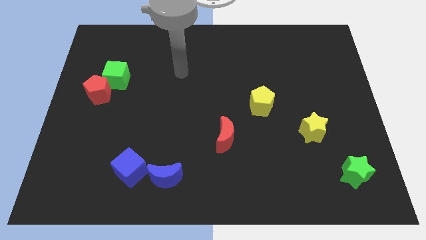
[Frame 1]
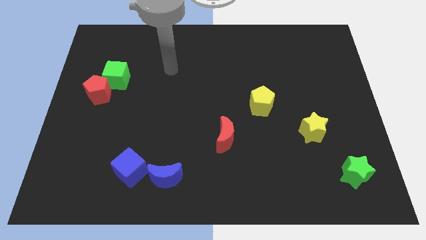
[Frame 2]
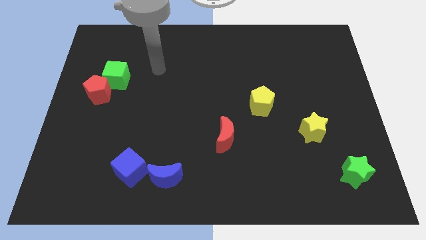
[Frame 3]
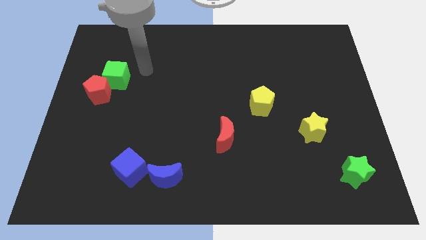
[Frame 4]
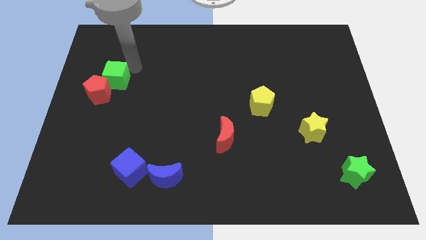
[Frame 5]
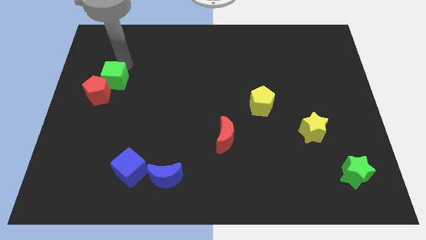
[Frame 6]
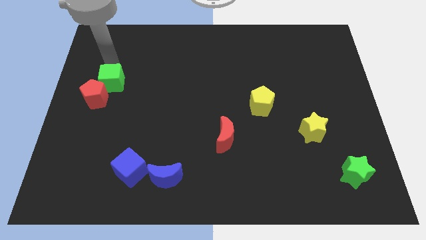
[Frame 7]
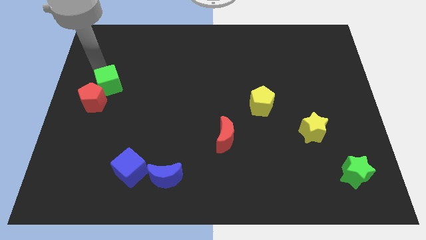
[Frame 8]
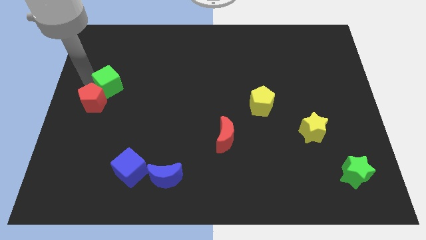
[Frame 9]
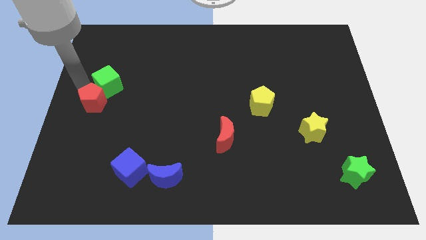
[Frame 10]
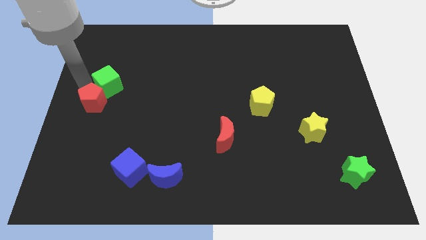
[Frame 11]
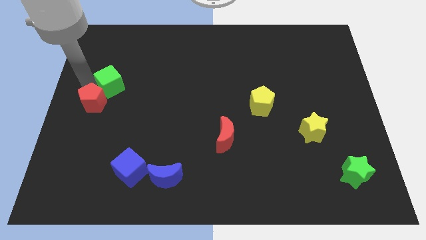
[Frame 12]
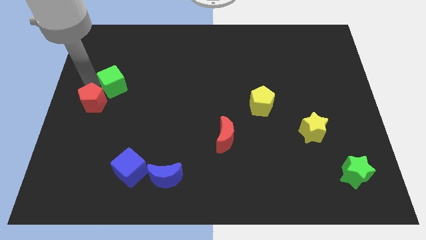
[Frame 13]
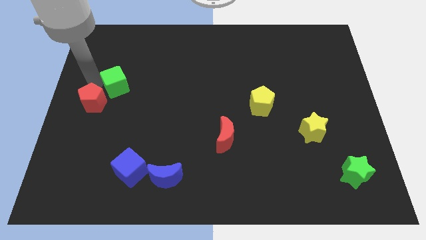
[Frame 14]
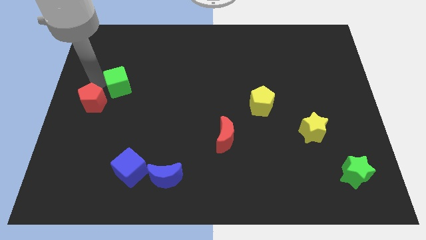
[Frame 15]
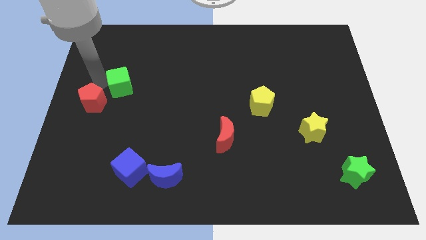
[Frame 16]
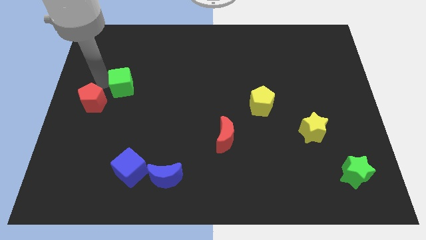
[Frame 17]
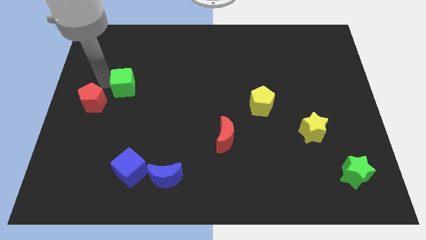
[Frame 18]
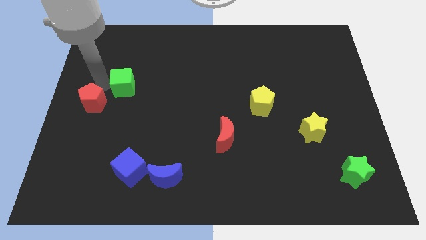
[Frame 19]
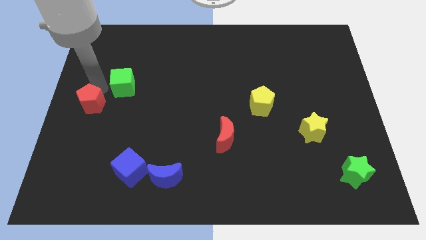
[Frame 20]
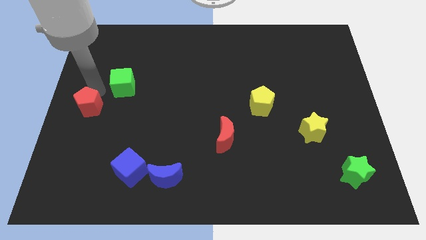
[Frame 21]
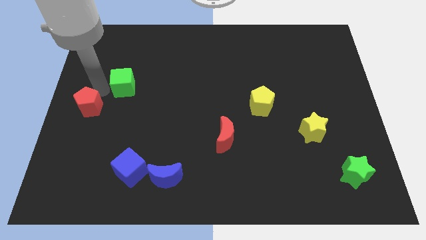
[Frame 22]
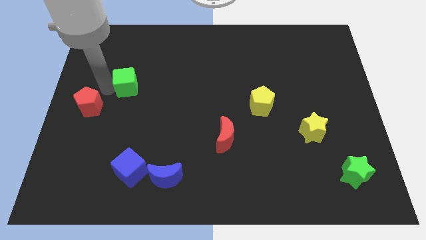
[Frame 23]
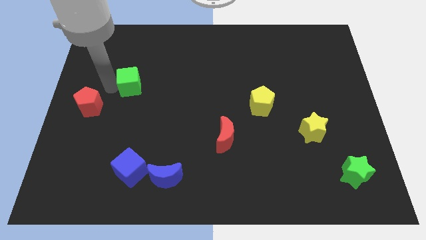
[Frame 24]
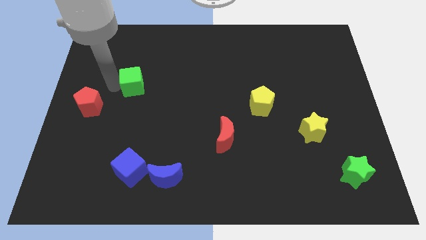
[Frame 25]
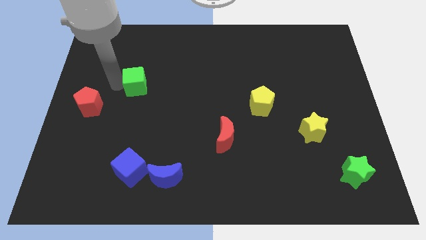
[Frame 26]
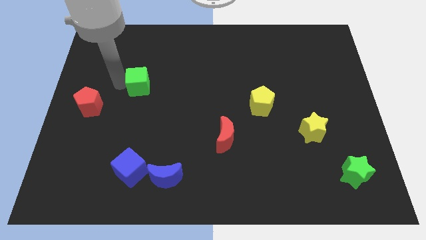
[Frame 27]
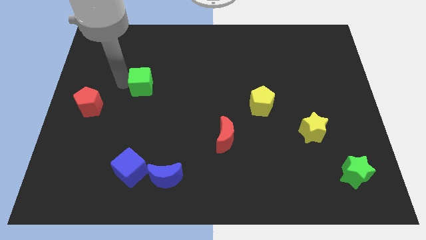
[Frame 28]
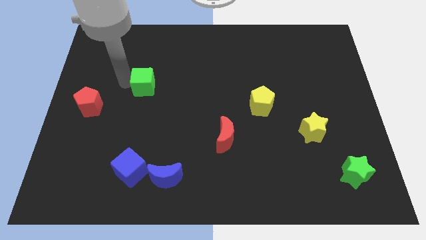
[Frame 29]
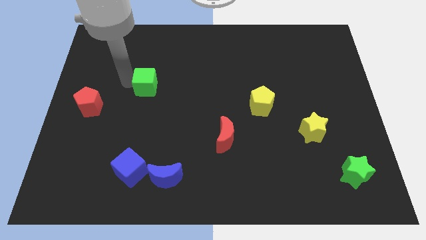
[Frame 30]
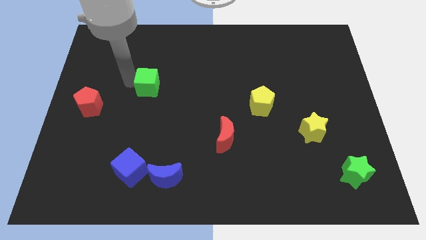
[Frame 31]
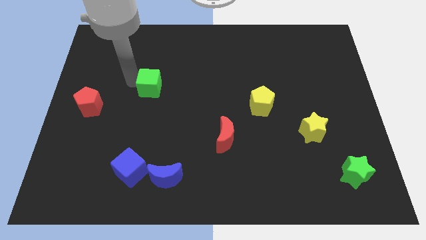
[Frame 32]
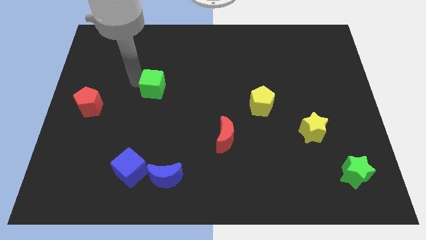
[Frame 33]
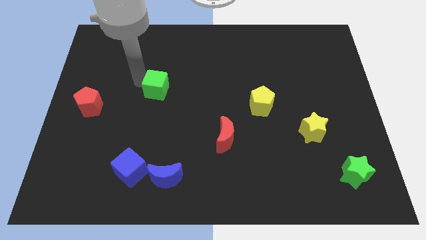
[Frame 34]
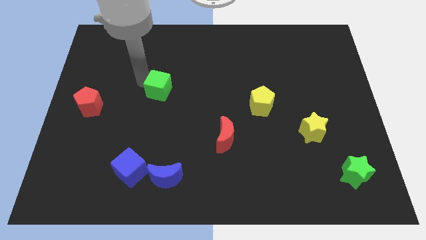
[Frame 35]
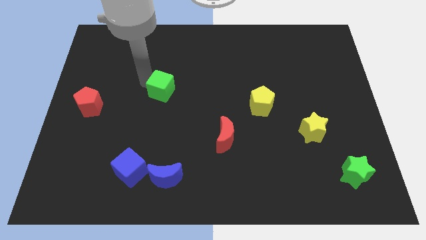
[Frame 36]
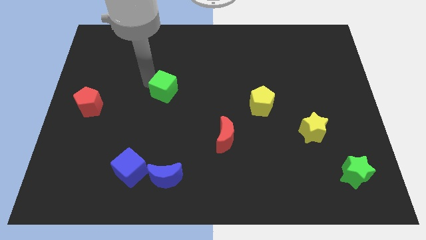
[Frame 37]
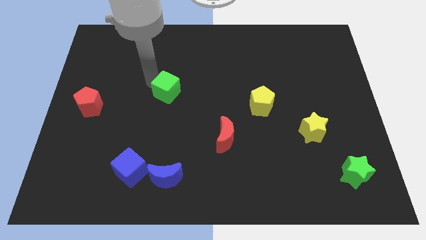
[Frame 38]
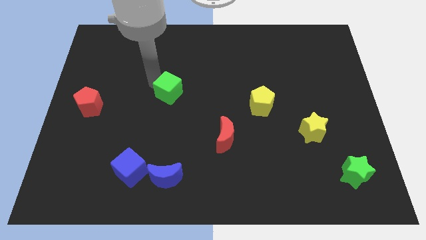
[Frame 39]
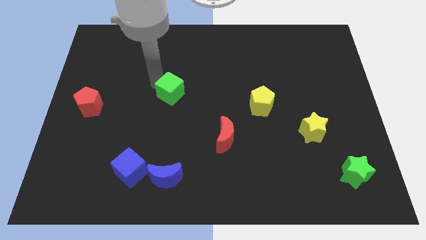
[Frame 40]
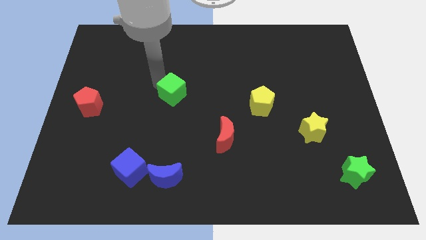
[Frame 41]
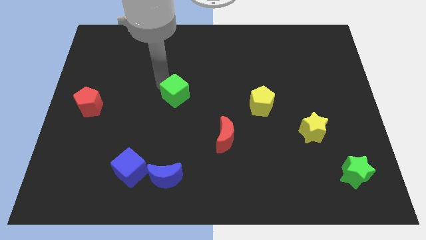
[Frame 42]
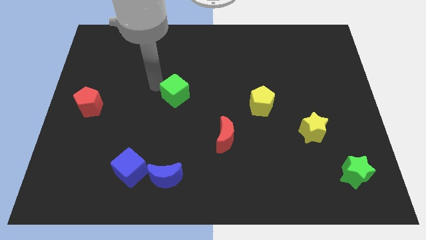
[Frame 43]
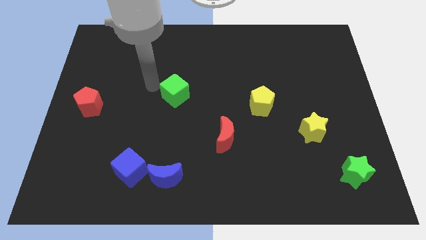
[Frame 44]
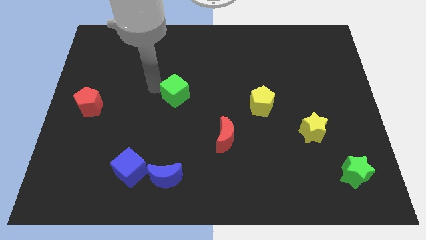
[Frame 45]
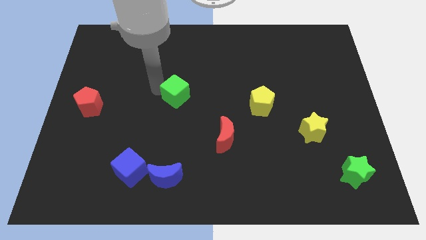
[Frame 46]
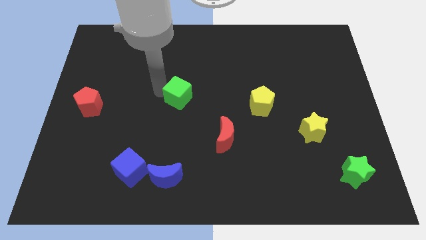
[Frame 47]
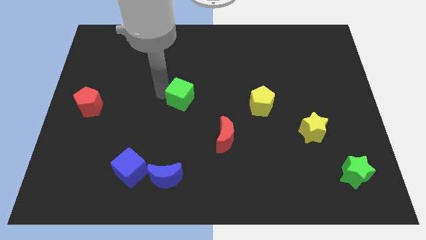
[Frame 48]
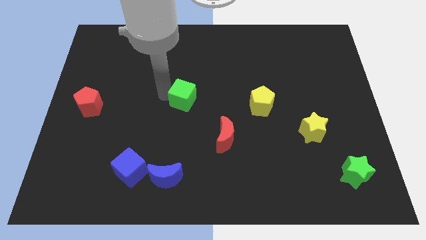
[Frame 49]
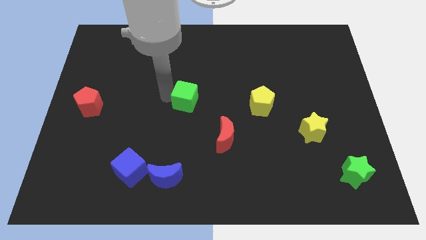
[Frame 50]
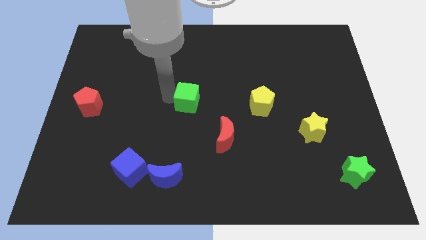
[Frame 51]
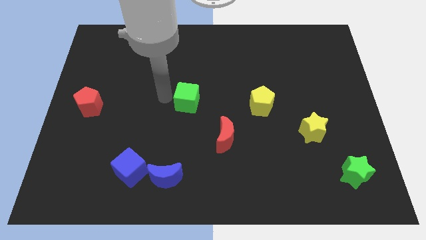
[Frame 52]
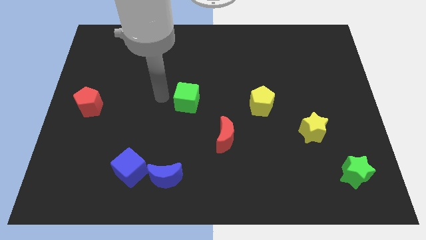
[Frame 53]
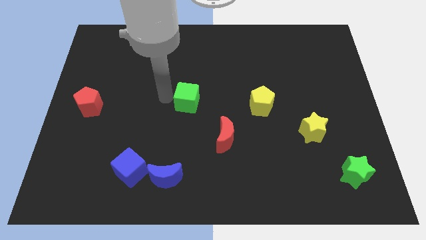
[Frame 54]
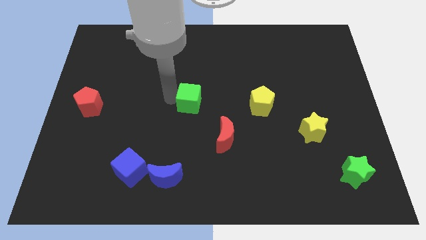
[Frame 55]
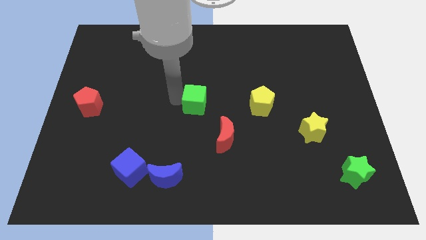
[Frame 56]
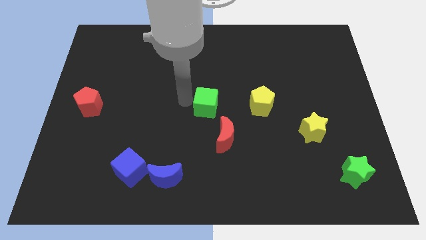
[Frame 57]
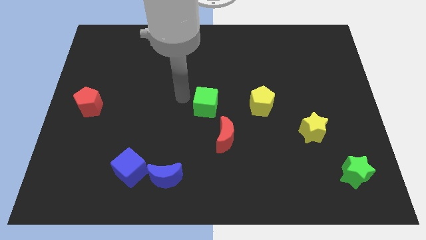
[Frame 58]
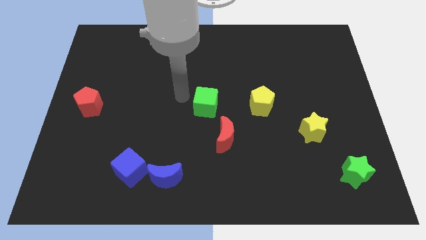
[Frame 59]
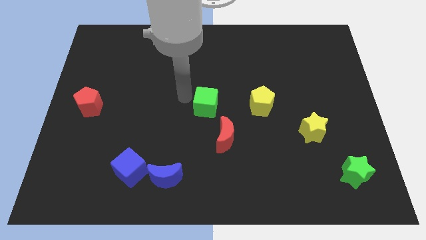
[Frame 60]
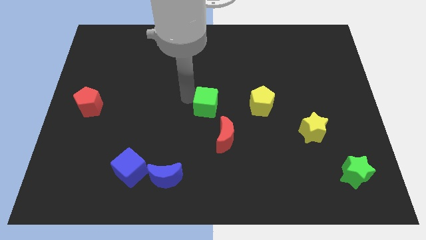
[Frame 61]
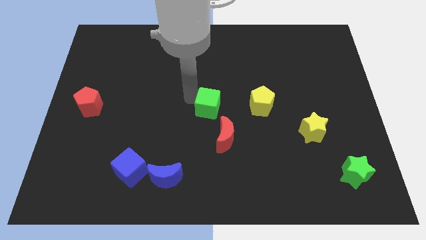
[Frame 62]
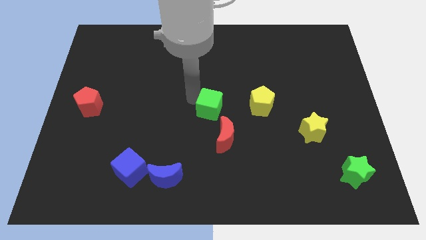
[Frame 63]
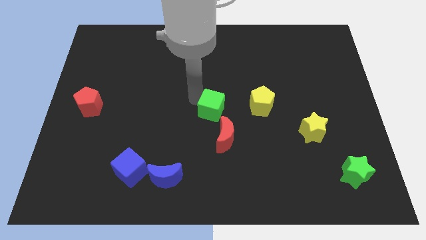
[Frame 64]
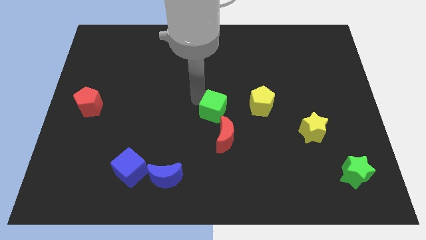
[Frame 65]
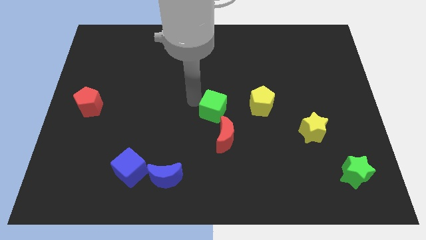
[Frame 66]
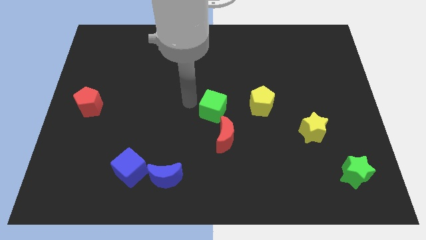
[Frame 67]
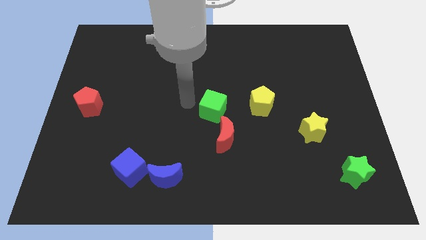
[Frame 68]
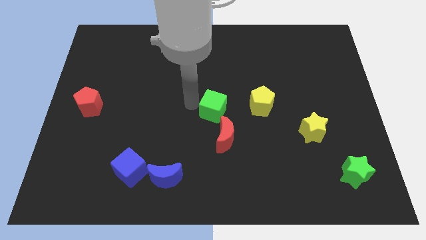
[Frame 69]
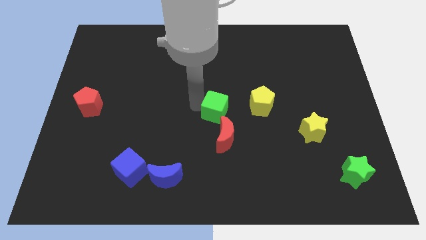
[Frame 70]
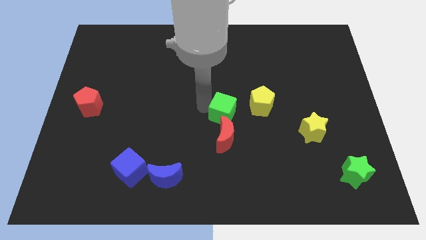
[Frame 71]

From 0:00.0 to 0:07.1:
slide the green cube to the bottom left side of the yellow pentagon
